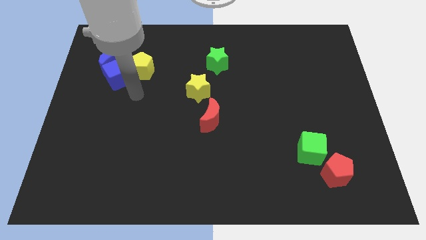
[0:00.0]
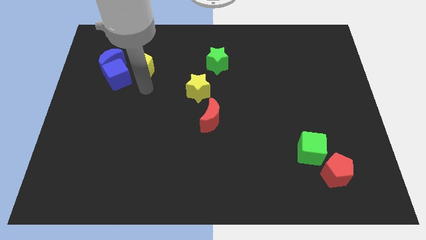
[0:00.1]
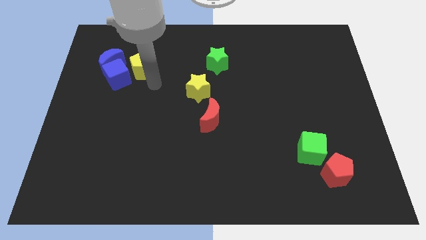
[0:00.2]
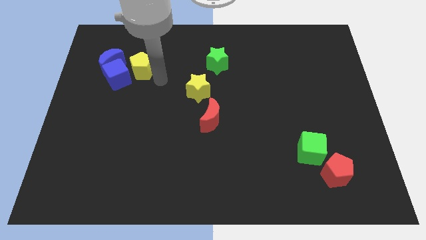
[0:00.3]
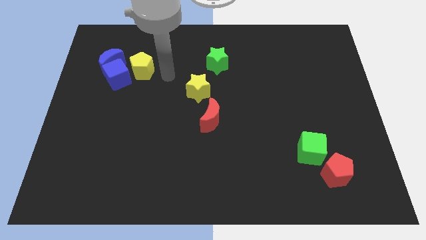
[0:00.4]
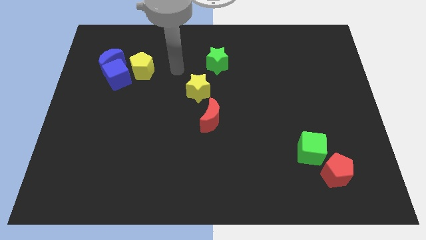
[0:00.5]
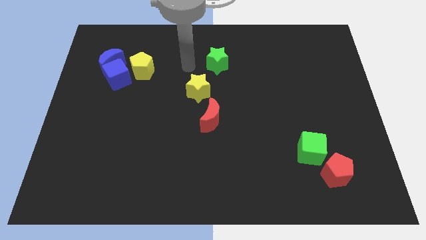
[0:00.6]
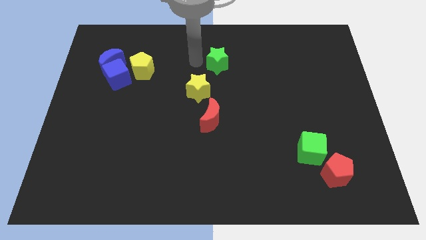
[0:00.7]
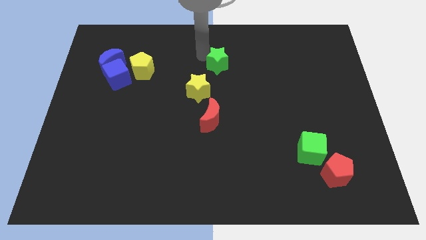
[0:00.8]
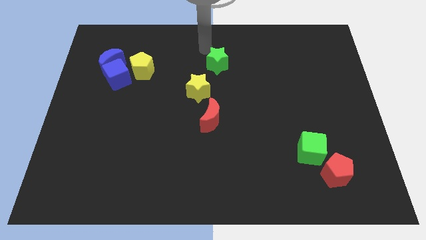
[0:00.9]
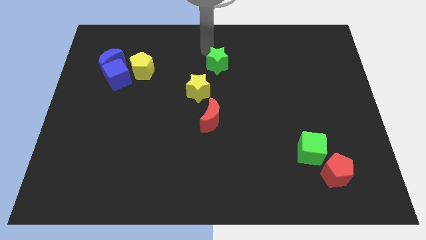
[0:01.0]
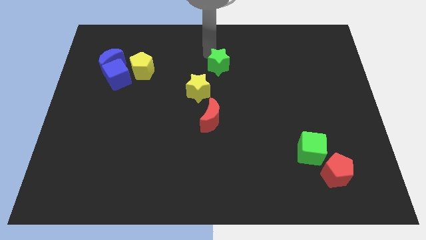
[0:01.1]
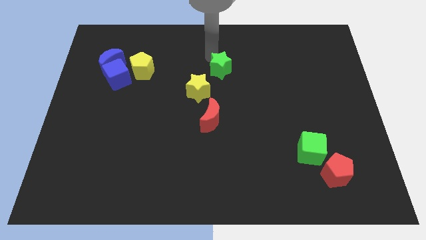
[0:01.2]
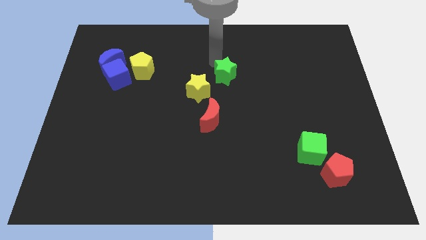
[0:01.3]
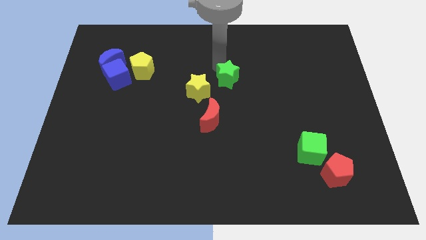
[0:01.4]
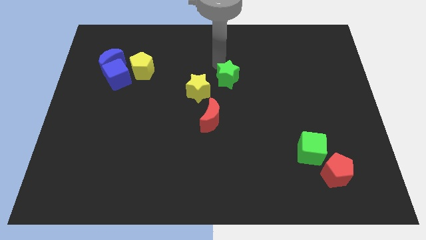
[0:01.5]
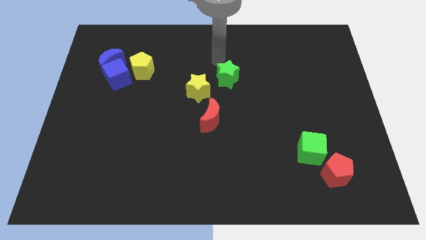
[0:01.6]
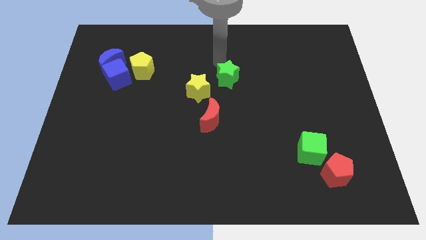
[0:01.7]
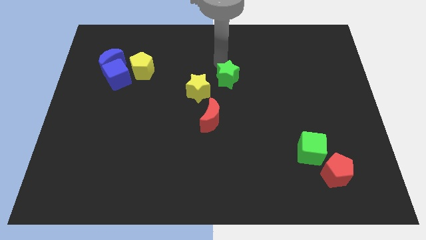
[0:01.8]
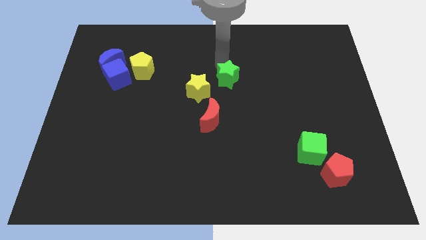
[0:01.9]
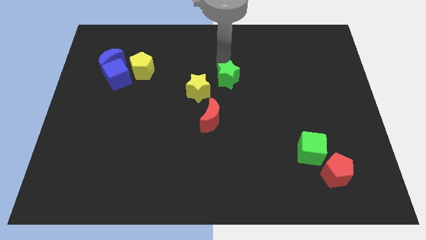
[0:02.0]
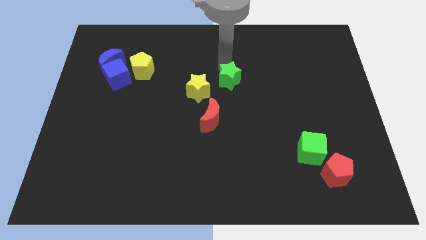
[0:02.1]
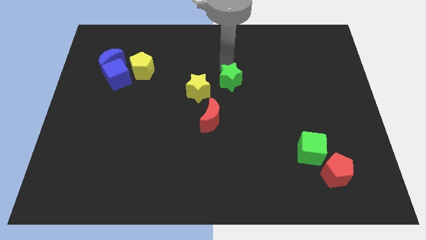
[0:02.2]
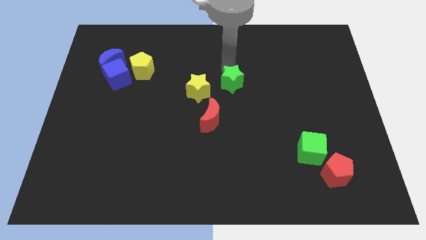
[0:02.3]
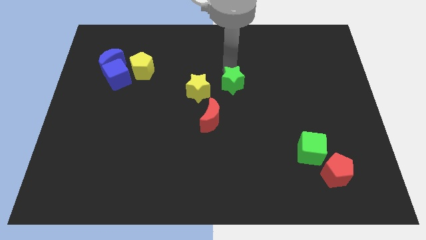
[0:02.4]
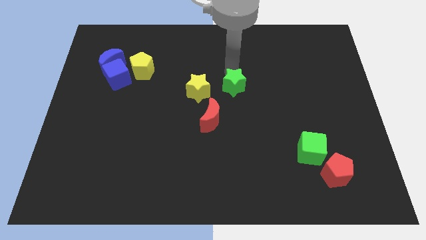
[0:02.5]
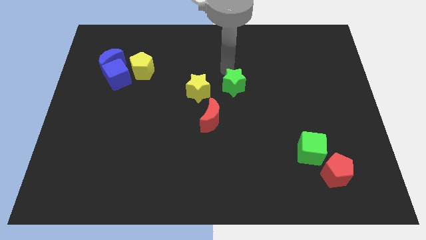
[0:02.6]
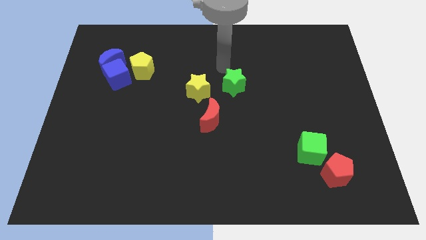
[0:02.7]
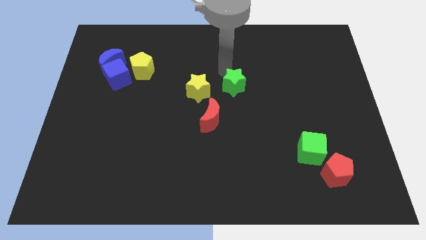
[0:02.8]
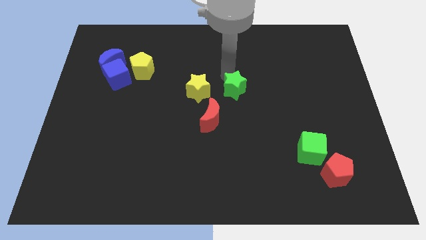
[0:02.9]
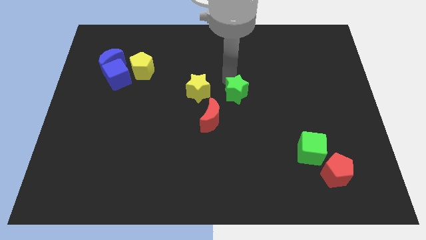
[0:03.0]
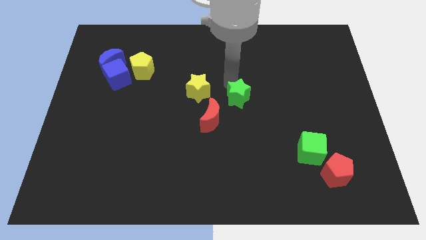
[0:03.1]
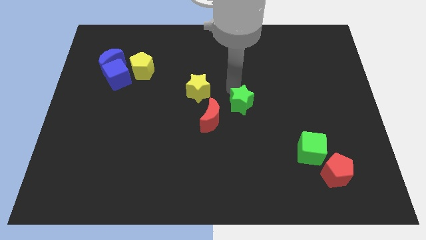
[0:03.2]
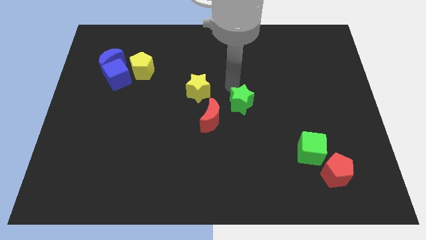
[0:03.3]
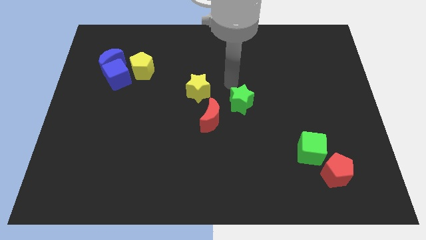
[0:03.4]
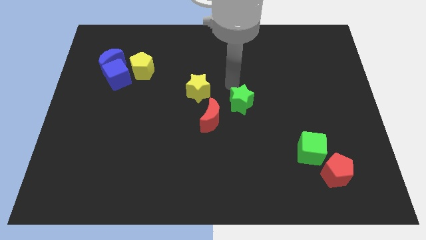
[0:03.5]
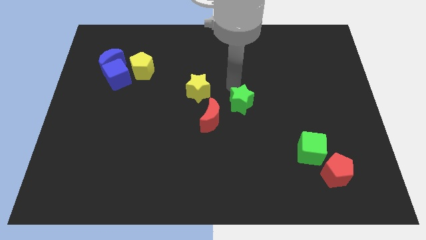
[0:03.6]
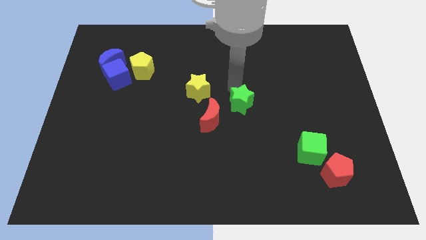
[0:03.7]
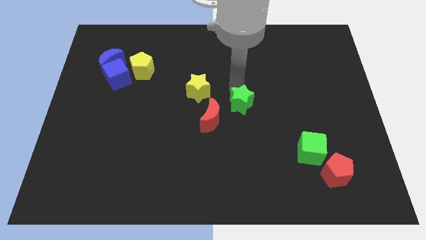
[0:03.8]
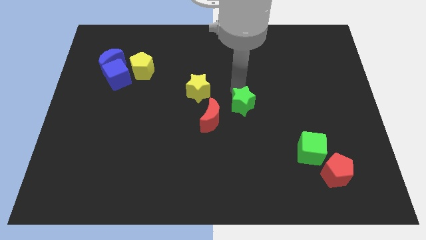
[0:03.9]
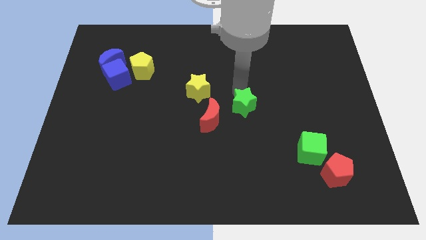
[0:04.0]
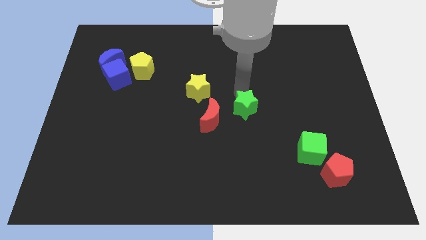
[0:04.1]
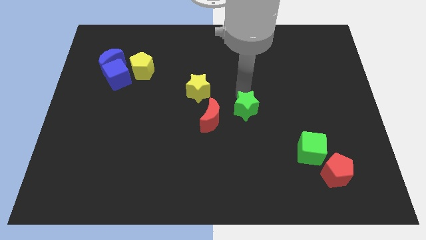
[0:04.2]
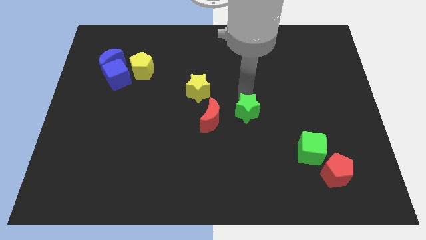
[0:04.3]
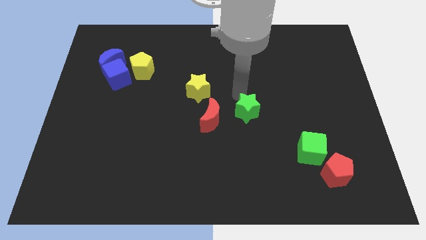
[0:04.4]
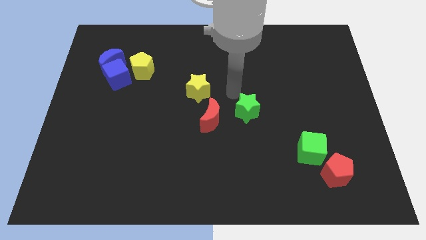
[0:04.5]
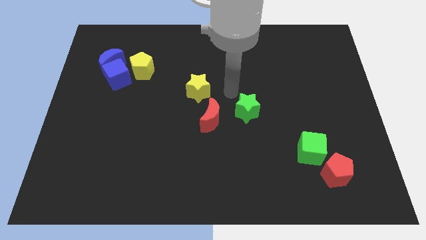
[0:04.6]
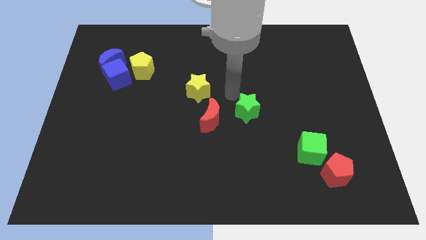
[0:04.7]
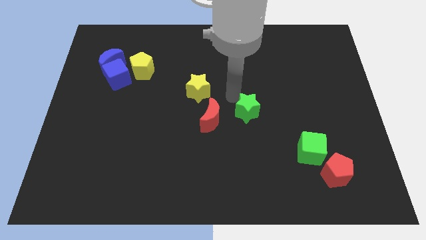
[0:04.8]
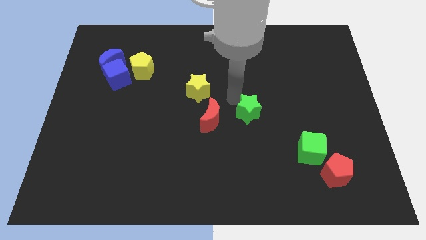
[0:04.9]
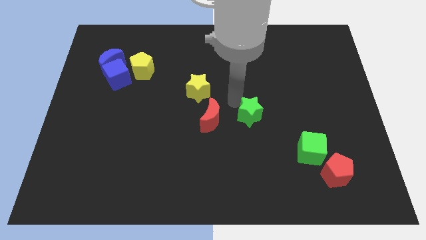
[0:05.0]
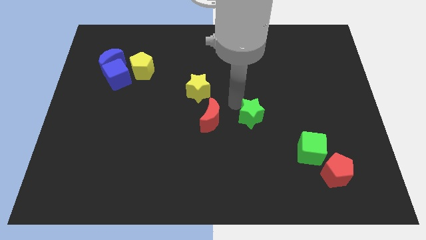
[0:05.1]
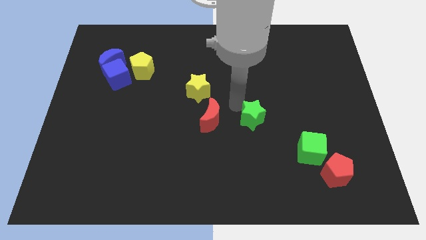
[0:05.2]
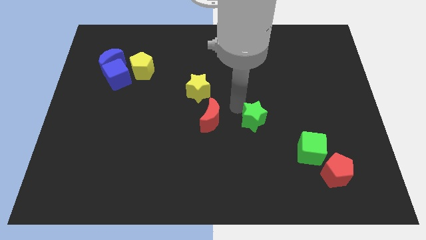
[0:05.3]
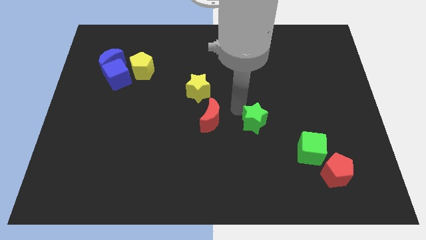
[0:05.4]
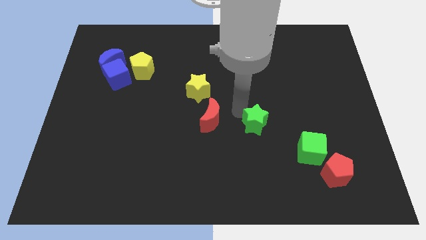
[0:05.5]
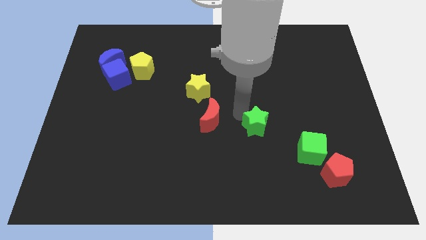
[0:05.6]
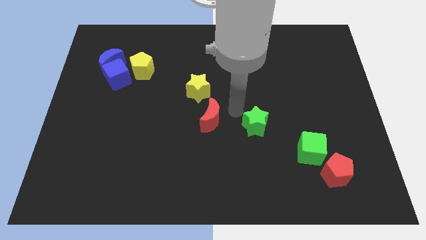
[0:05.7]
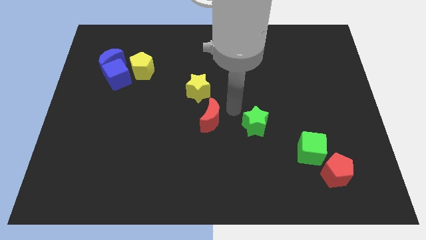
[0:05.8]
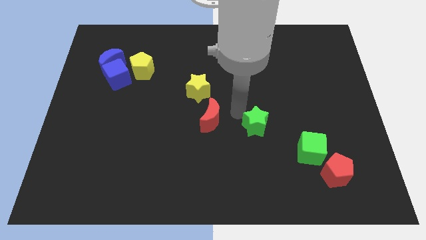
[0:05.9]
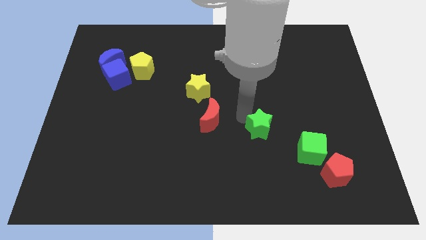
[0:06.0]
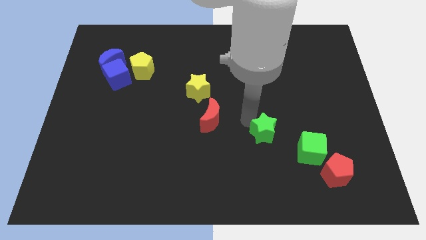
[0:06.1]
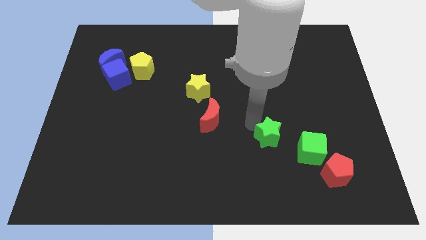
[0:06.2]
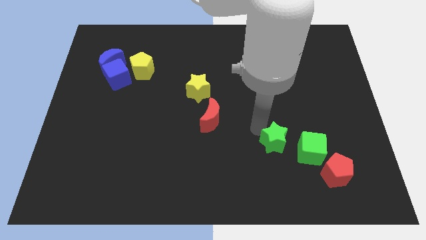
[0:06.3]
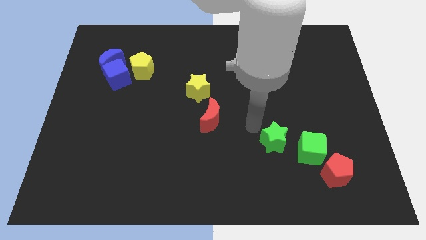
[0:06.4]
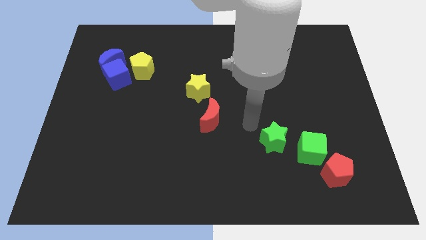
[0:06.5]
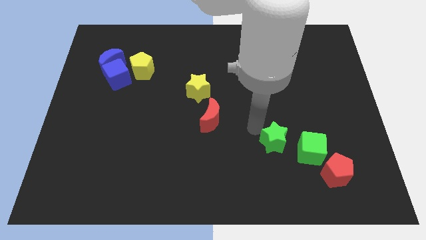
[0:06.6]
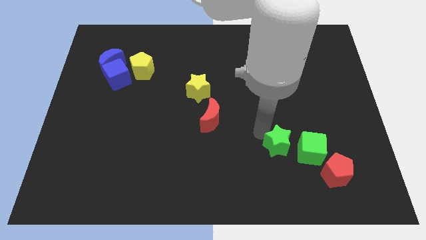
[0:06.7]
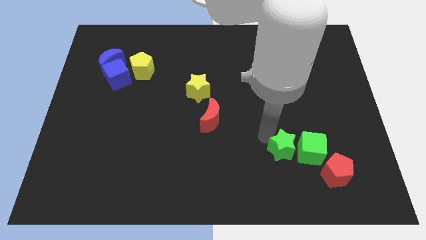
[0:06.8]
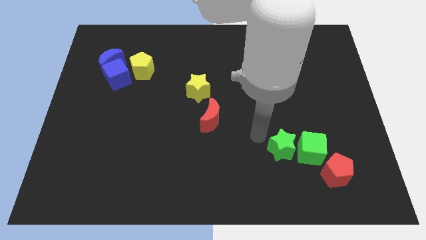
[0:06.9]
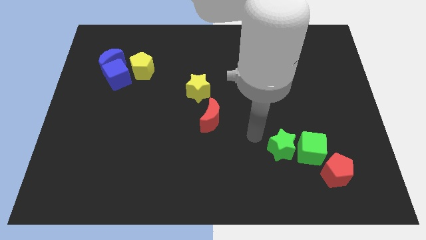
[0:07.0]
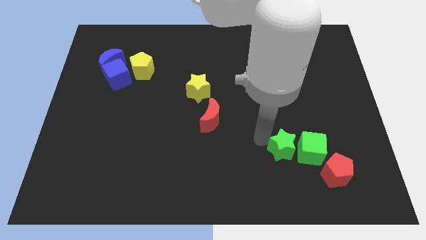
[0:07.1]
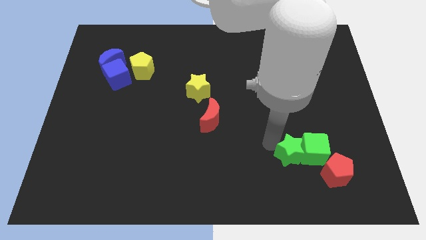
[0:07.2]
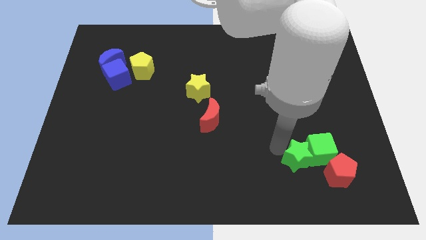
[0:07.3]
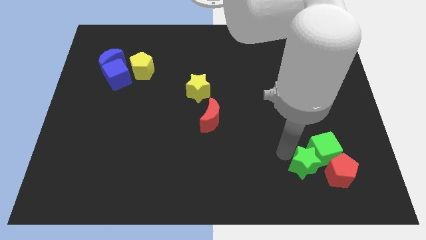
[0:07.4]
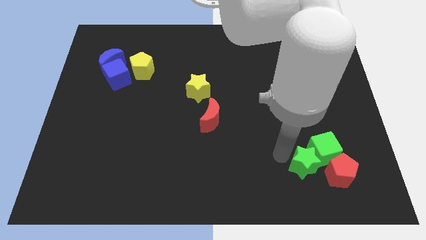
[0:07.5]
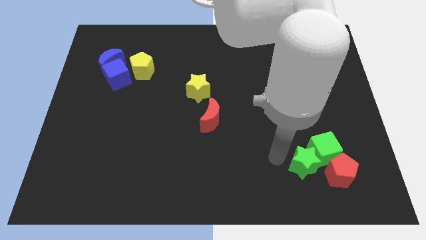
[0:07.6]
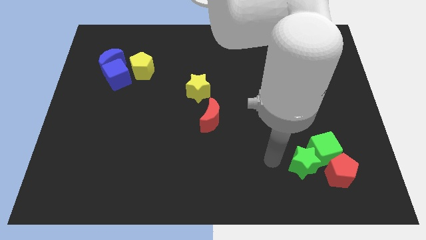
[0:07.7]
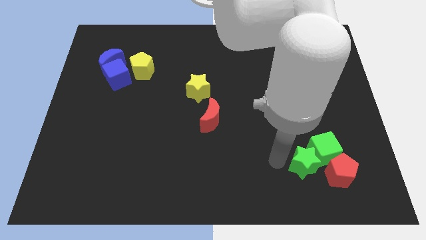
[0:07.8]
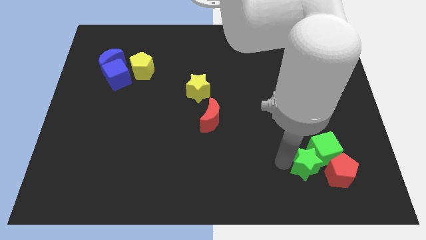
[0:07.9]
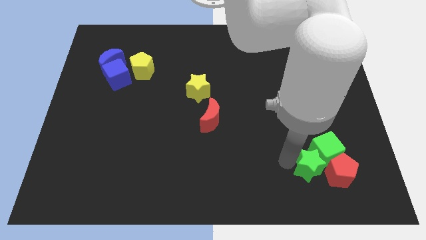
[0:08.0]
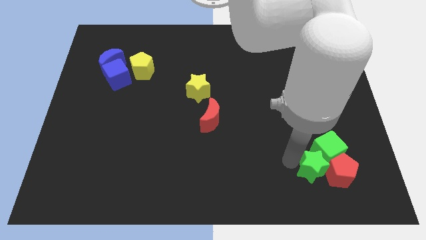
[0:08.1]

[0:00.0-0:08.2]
slide the green star close to the red pentagon

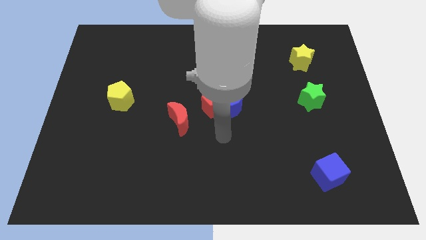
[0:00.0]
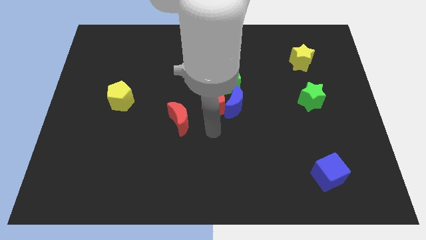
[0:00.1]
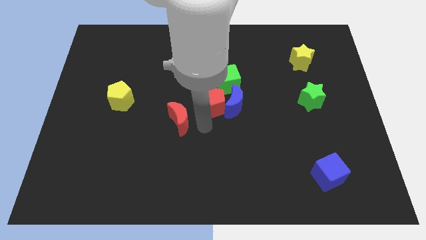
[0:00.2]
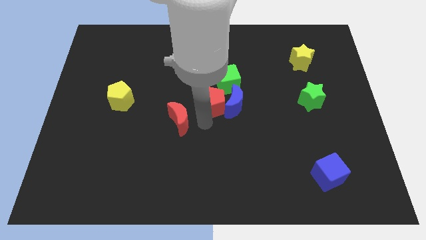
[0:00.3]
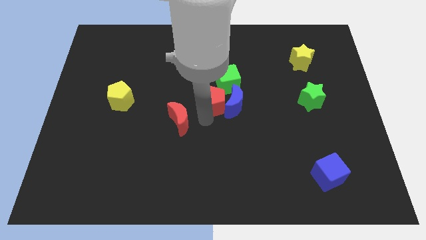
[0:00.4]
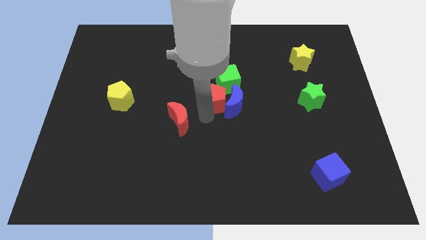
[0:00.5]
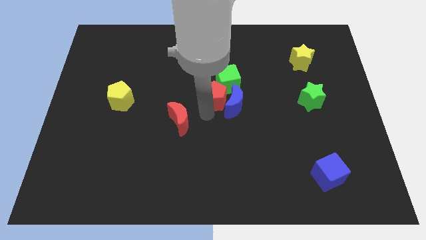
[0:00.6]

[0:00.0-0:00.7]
move the red pentagon next to the green cube
